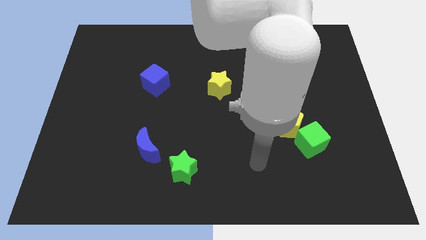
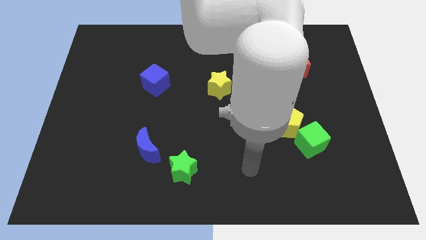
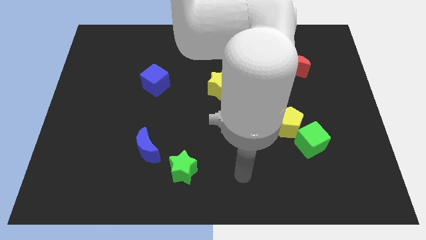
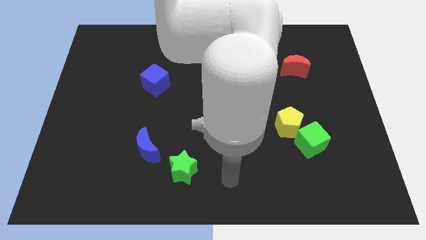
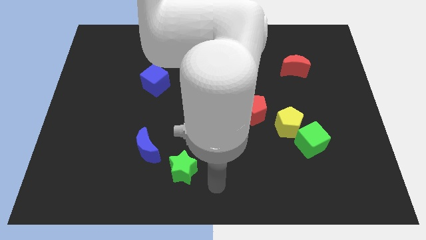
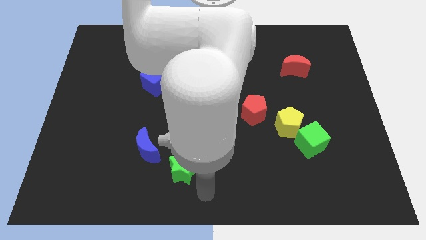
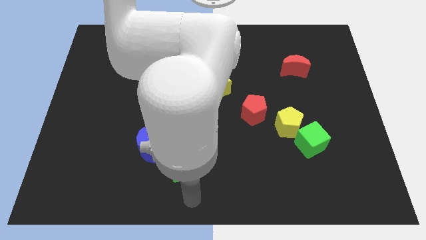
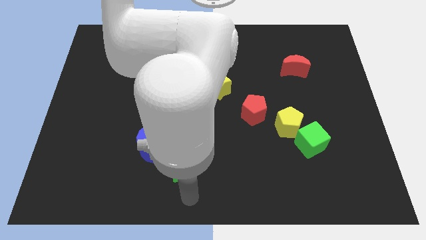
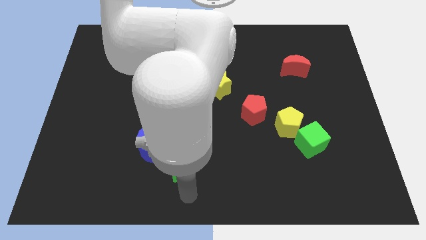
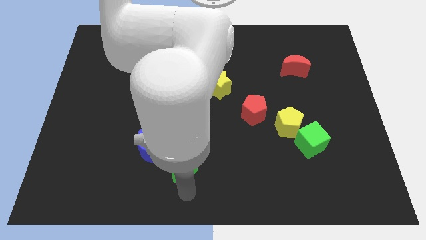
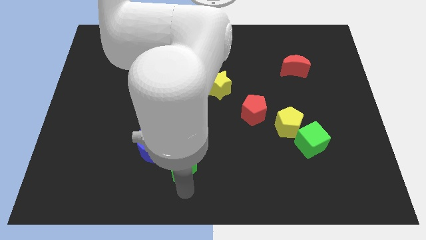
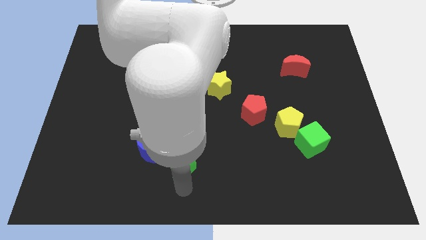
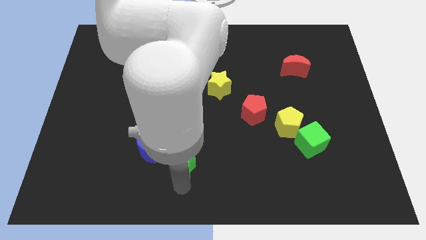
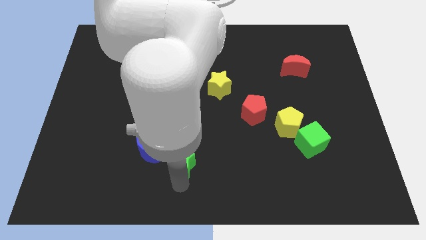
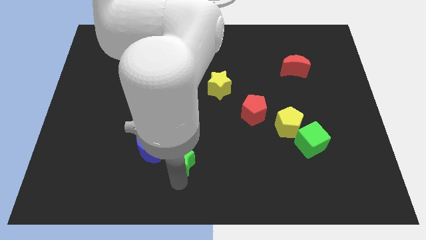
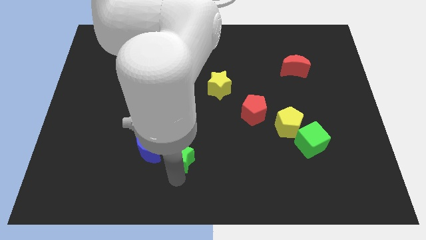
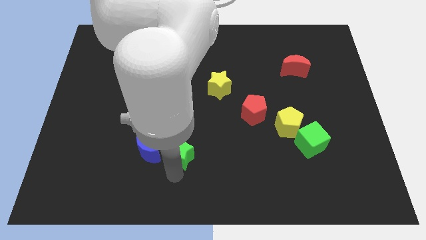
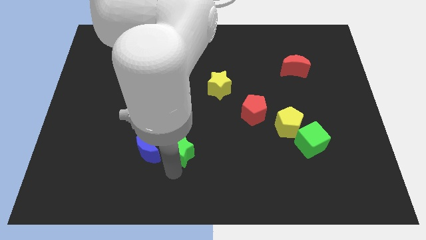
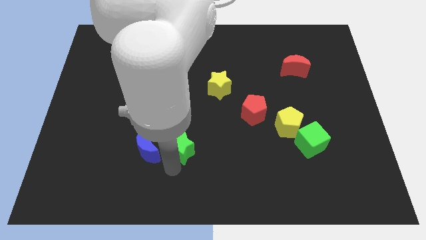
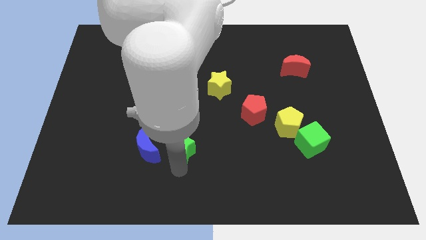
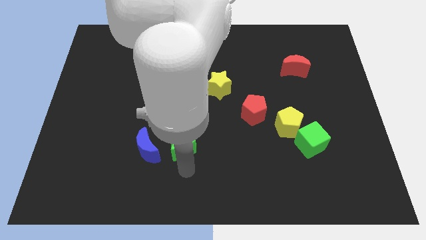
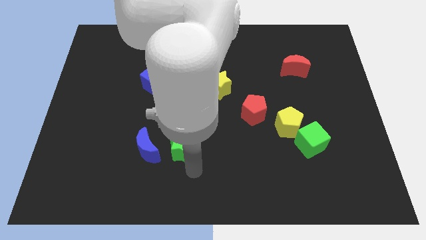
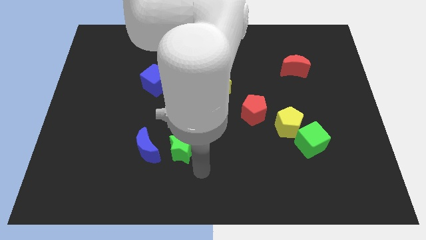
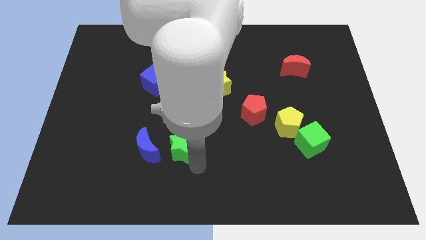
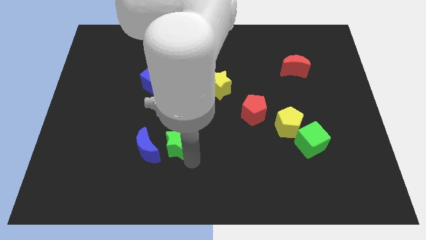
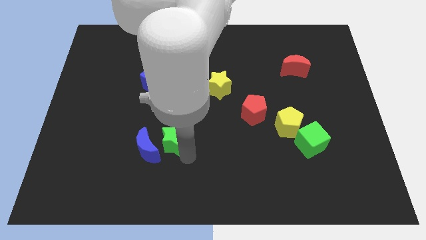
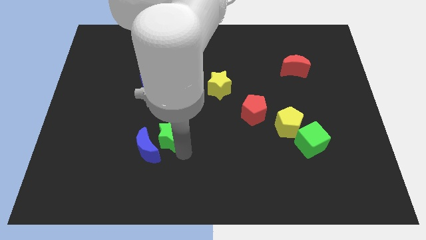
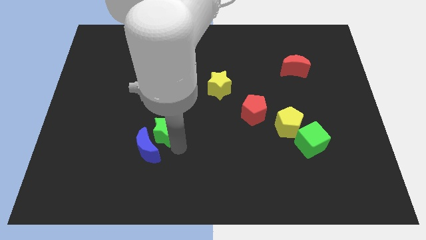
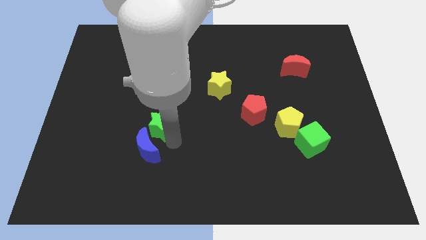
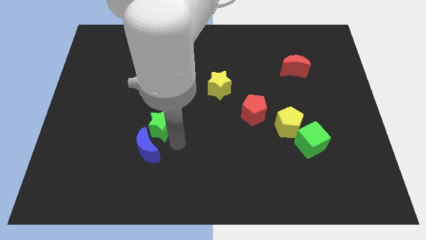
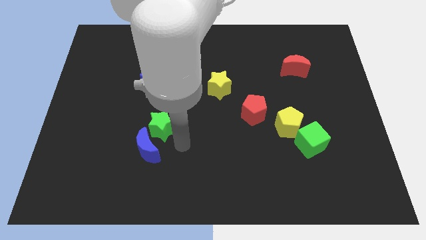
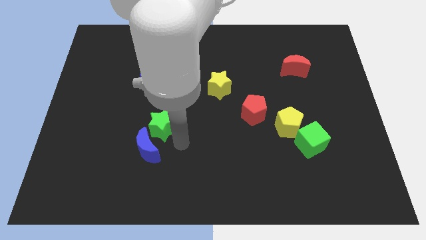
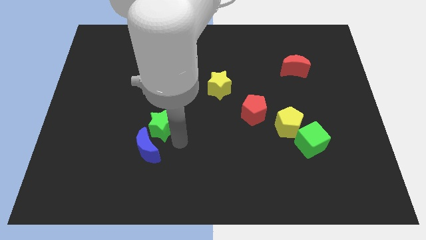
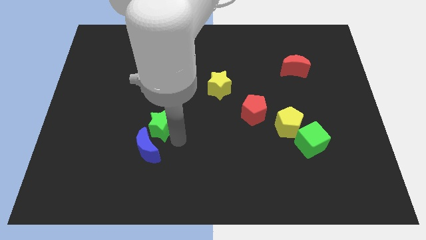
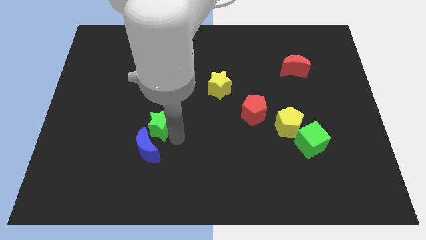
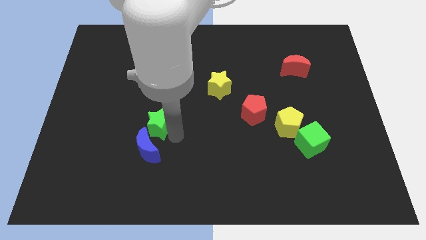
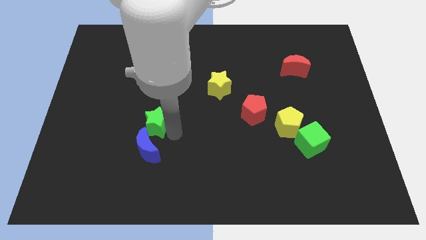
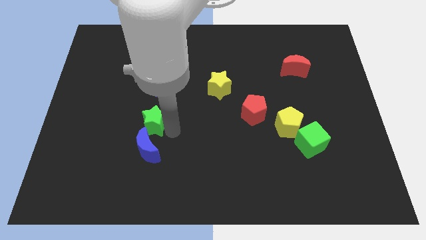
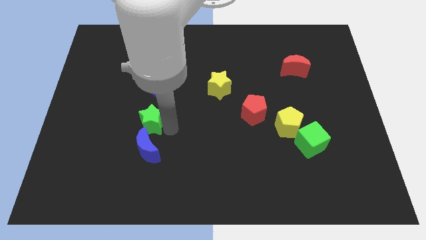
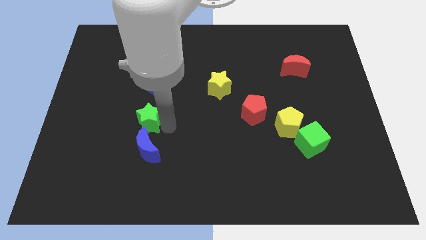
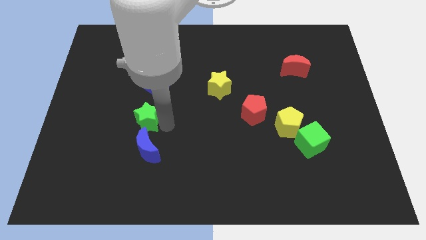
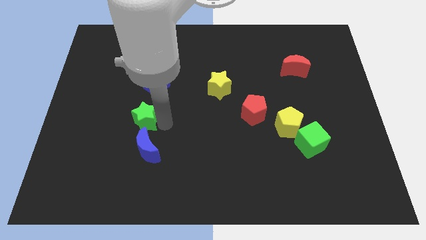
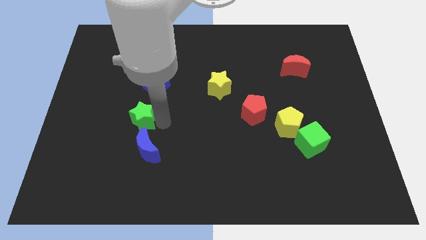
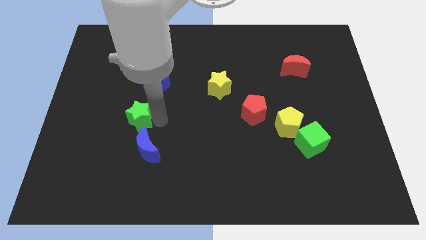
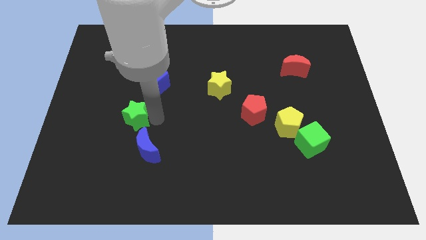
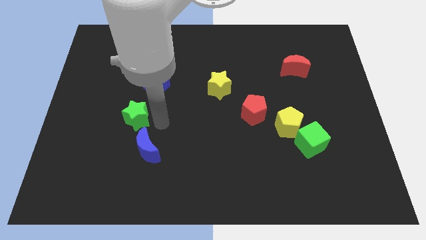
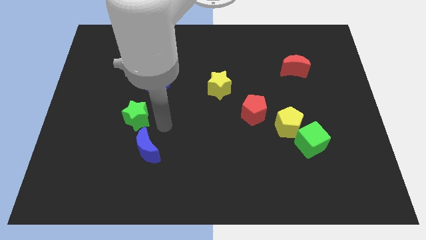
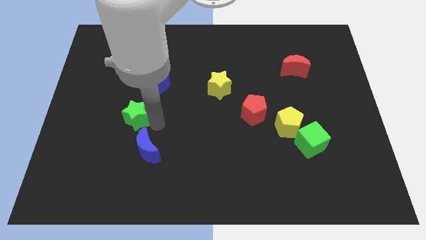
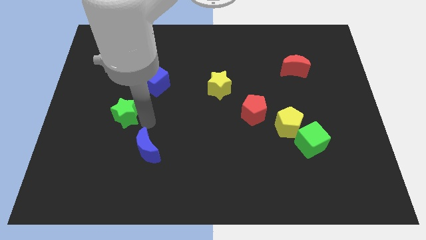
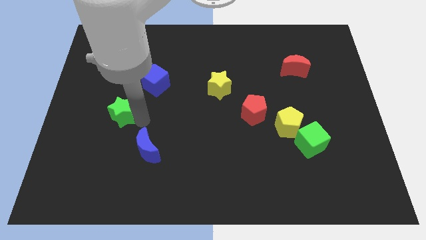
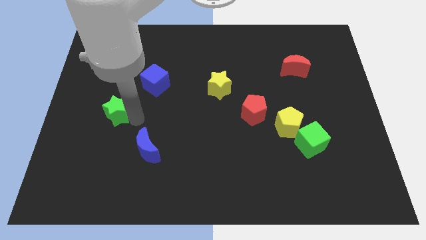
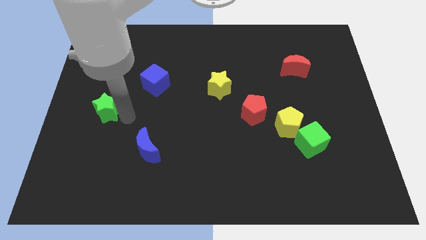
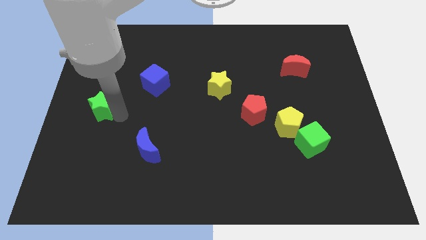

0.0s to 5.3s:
put the green star to the left side
